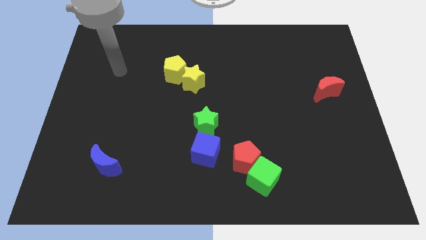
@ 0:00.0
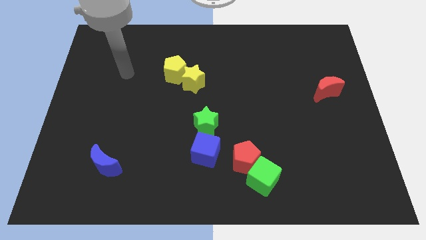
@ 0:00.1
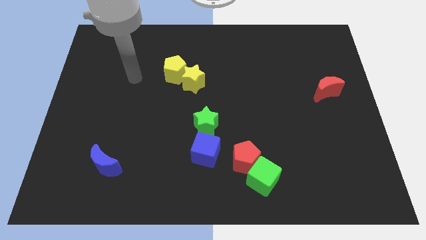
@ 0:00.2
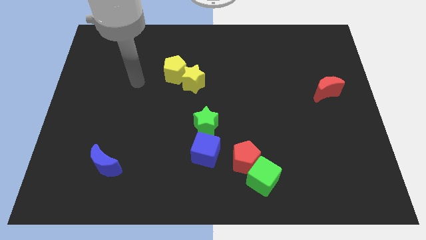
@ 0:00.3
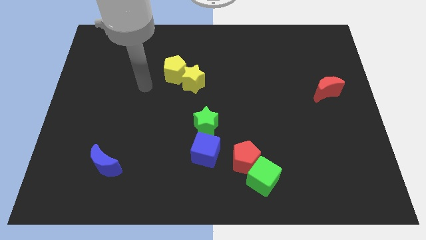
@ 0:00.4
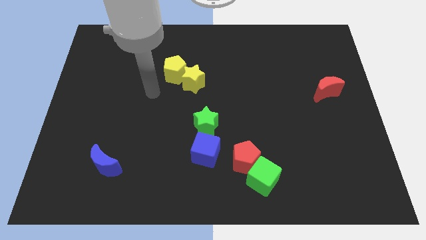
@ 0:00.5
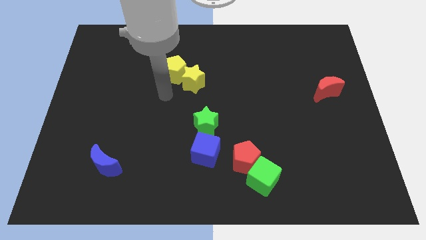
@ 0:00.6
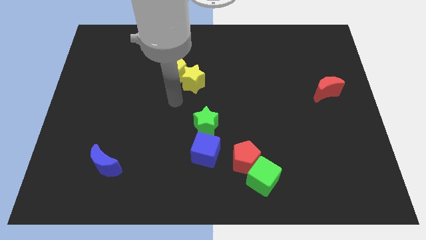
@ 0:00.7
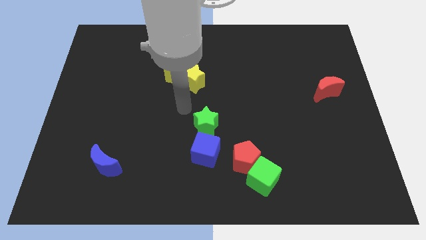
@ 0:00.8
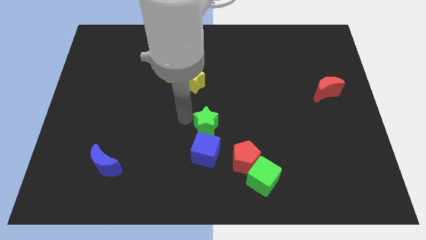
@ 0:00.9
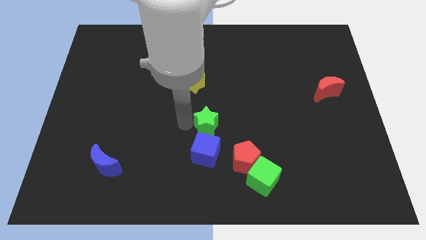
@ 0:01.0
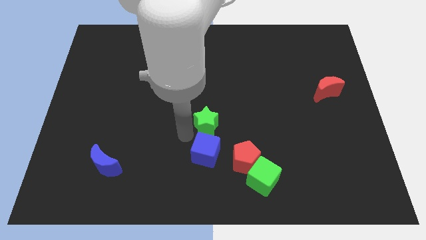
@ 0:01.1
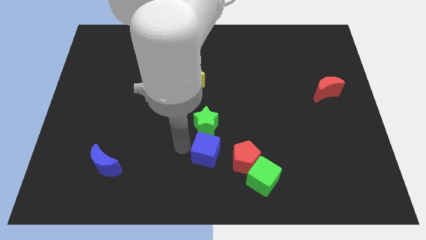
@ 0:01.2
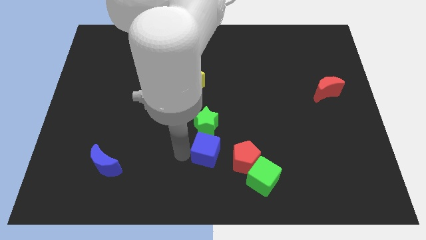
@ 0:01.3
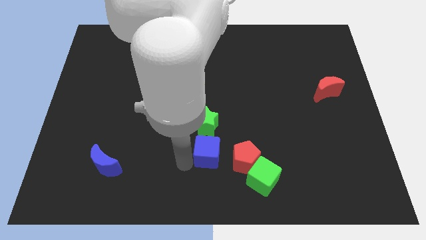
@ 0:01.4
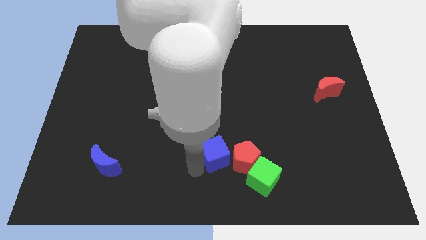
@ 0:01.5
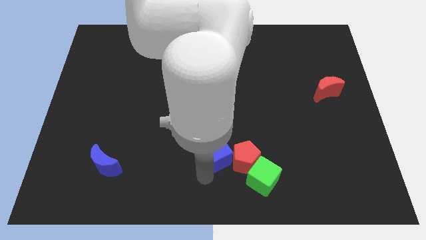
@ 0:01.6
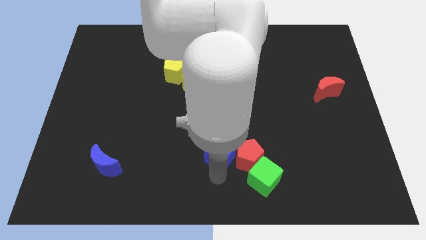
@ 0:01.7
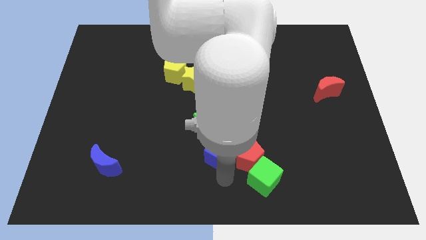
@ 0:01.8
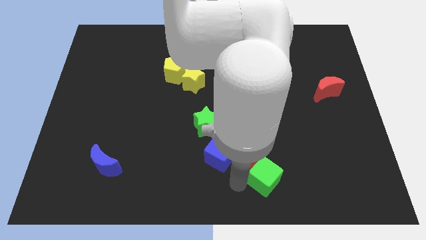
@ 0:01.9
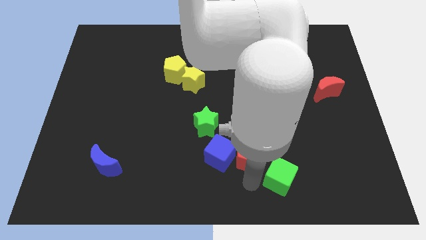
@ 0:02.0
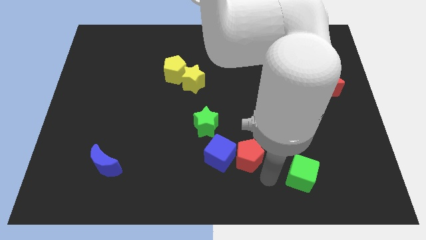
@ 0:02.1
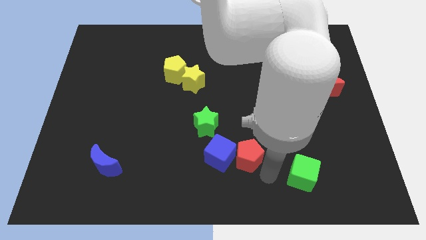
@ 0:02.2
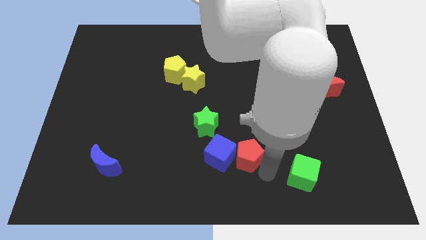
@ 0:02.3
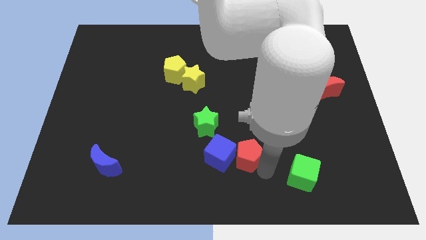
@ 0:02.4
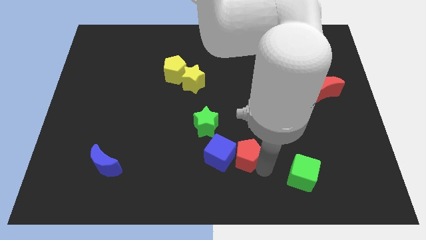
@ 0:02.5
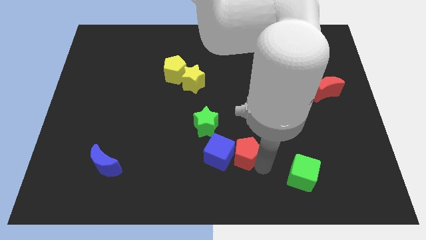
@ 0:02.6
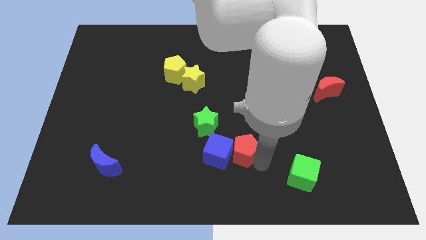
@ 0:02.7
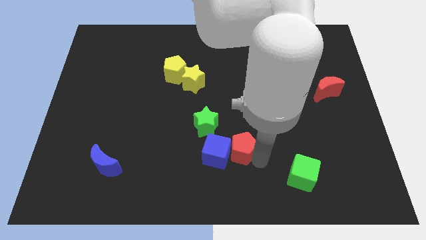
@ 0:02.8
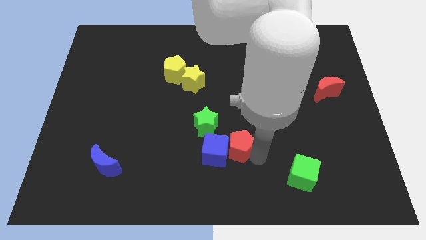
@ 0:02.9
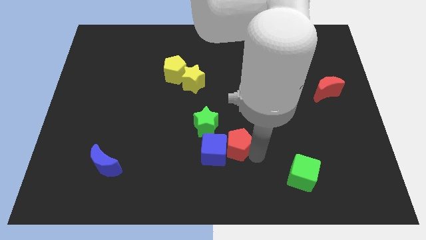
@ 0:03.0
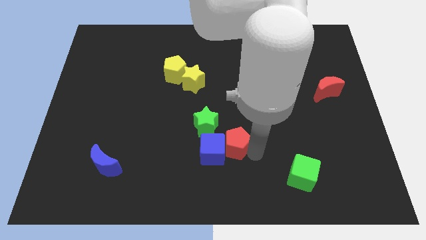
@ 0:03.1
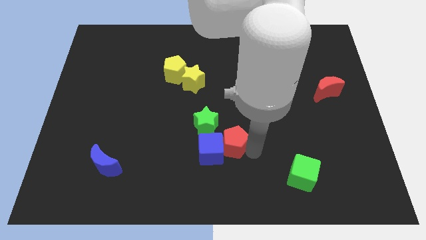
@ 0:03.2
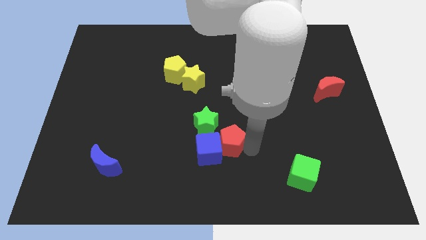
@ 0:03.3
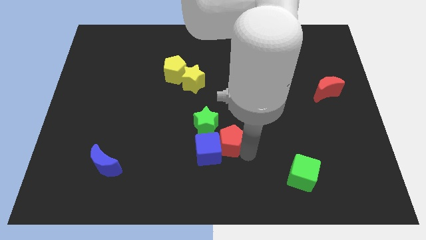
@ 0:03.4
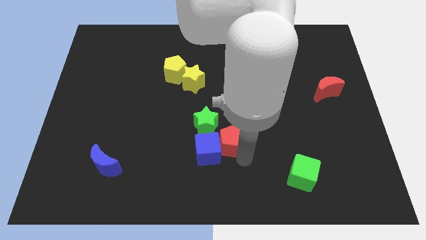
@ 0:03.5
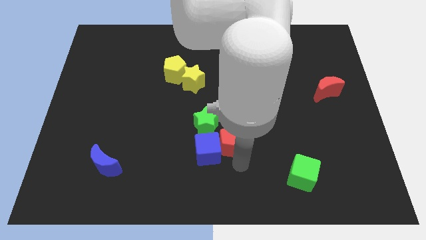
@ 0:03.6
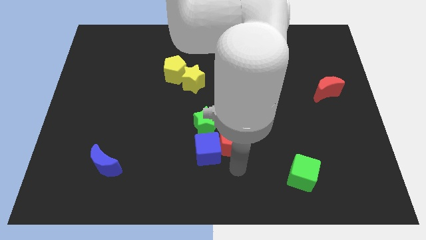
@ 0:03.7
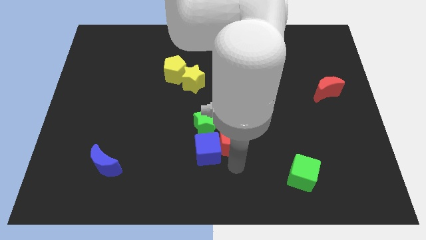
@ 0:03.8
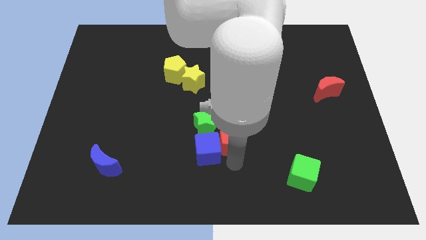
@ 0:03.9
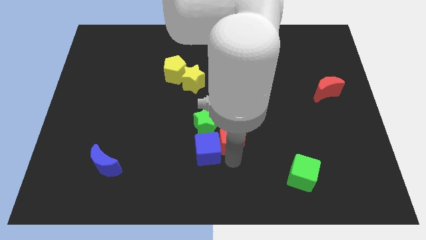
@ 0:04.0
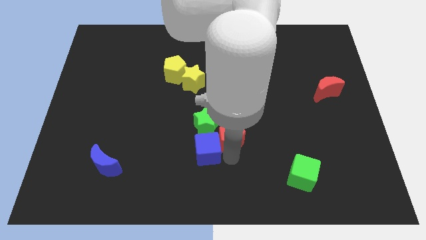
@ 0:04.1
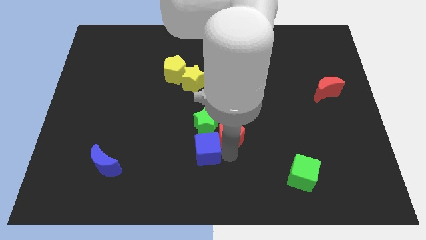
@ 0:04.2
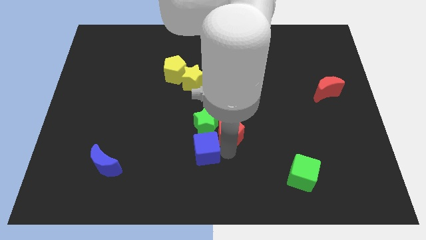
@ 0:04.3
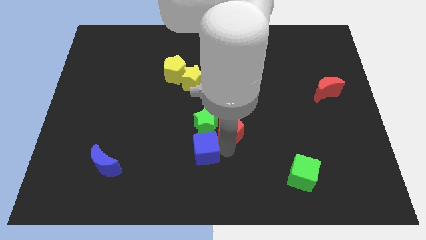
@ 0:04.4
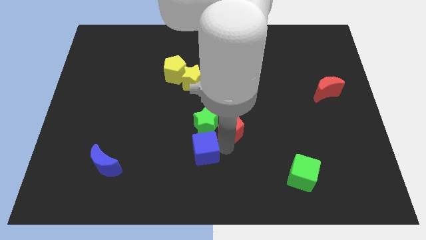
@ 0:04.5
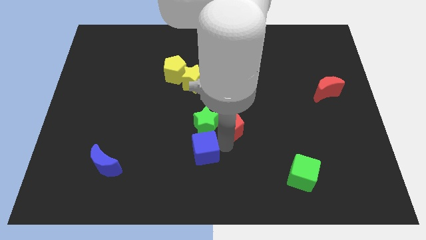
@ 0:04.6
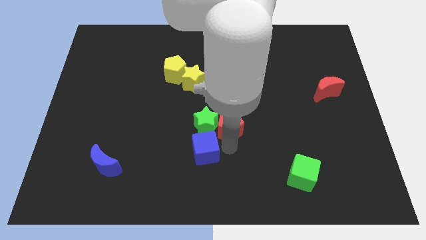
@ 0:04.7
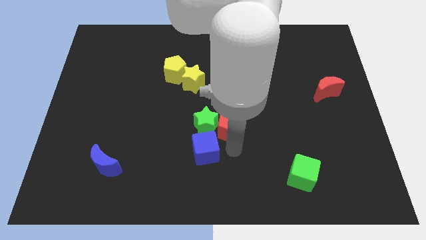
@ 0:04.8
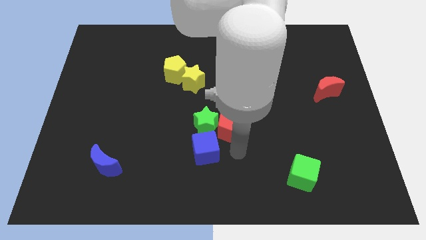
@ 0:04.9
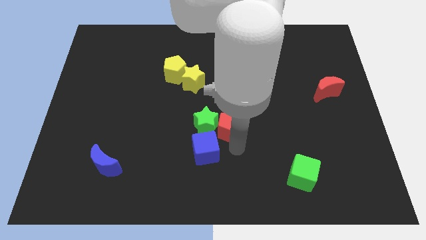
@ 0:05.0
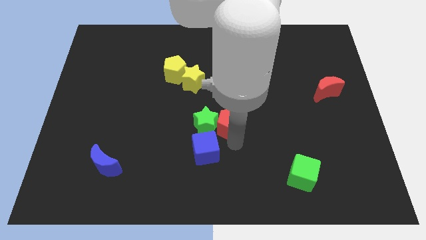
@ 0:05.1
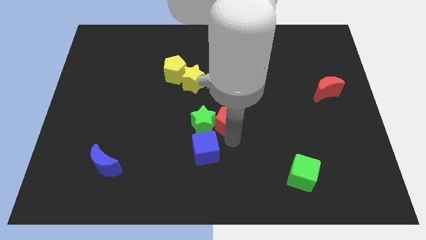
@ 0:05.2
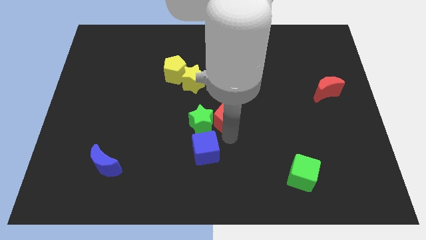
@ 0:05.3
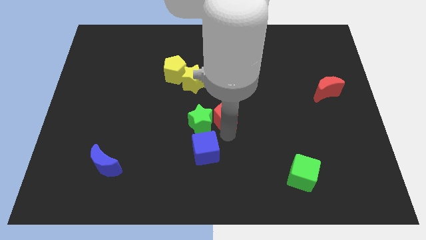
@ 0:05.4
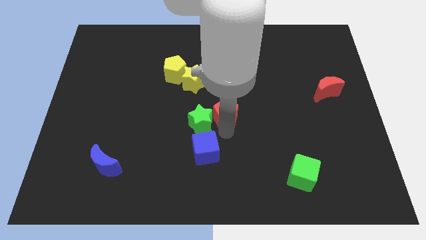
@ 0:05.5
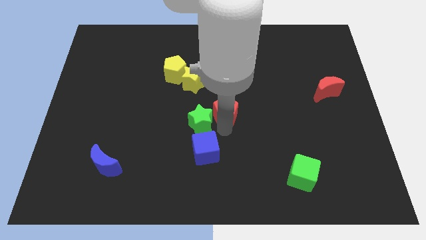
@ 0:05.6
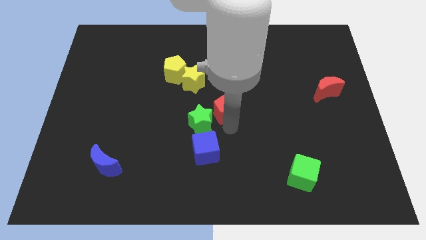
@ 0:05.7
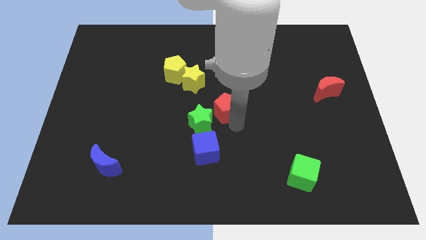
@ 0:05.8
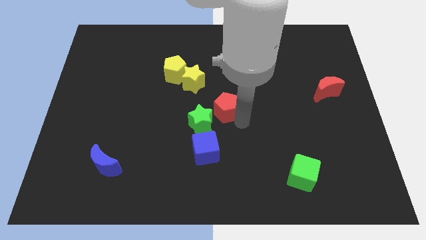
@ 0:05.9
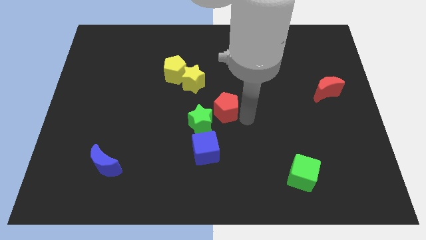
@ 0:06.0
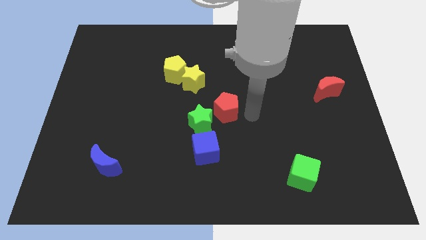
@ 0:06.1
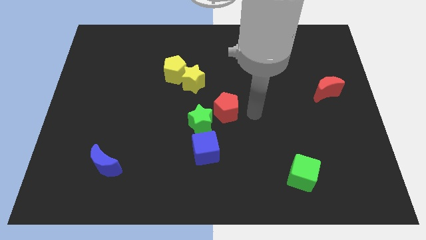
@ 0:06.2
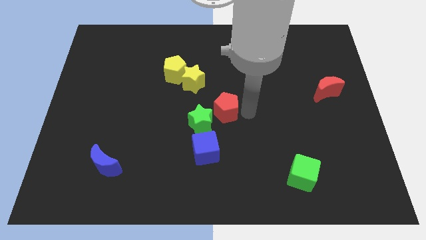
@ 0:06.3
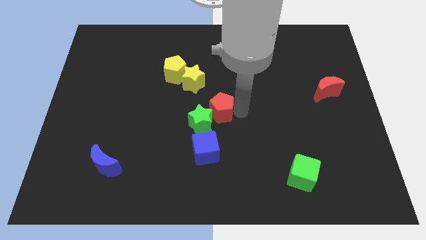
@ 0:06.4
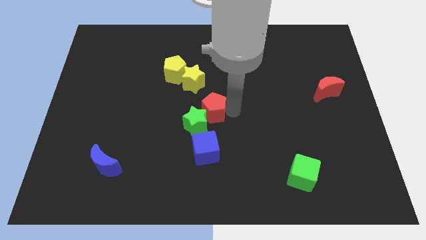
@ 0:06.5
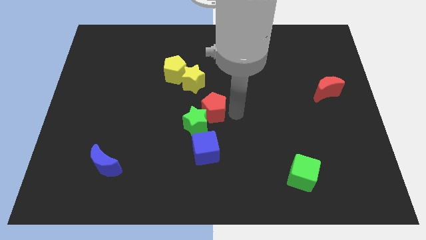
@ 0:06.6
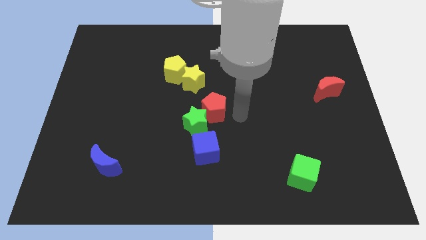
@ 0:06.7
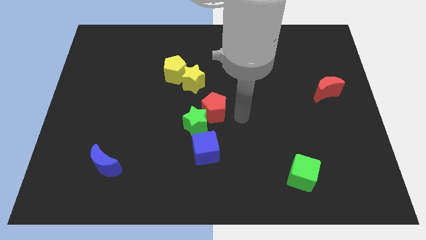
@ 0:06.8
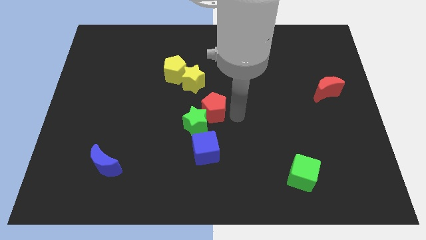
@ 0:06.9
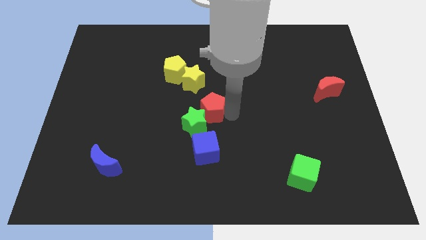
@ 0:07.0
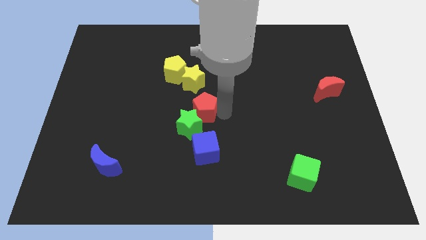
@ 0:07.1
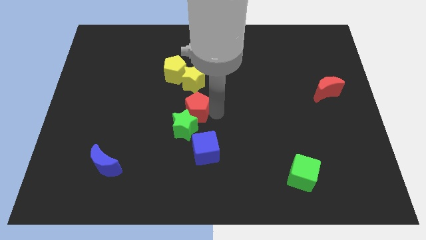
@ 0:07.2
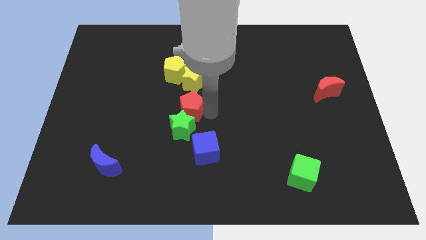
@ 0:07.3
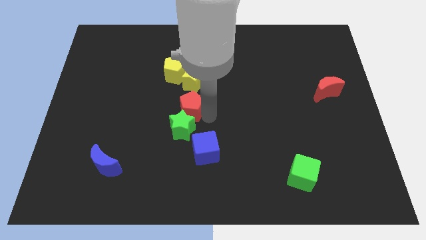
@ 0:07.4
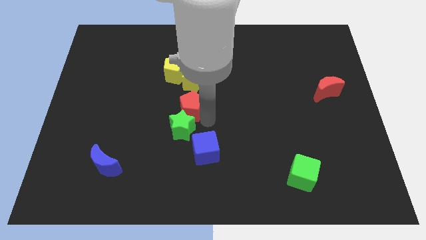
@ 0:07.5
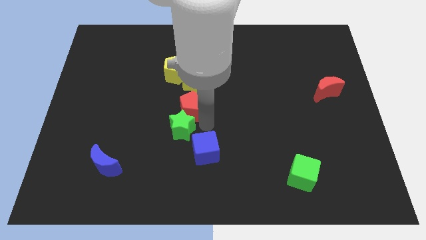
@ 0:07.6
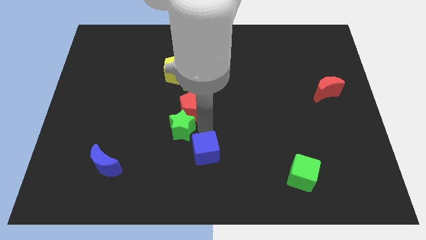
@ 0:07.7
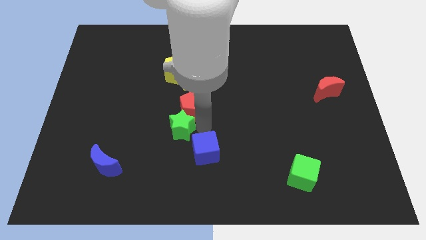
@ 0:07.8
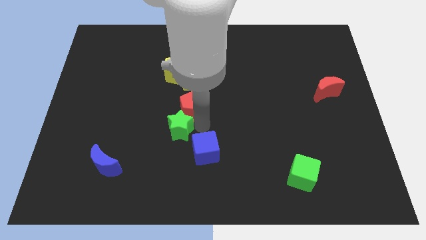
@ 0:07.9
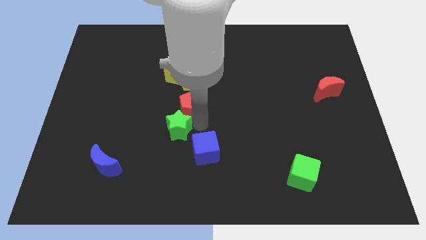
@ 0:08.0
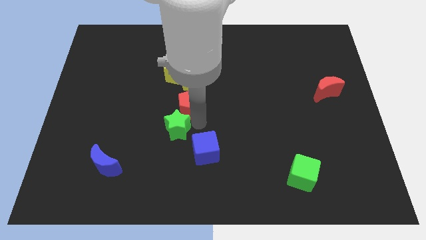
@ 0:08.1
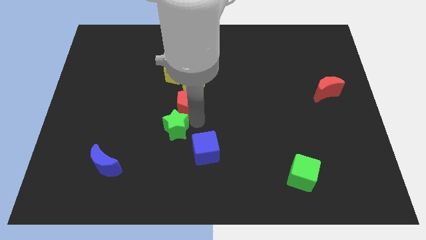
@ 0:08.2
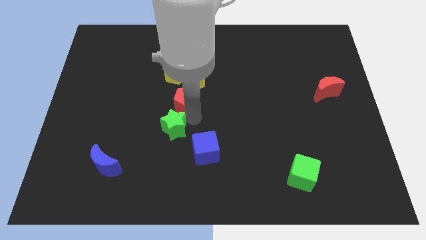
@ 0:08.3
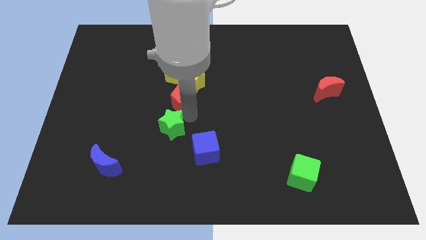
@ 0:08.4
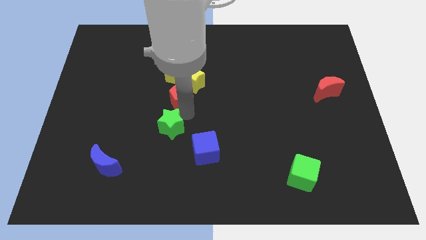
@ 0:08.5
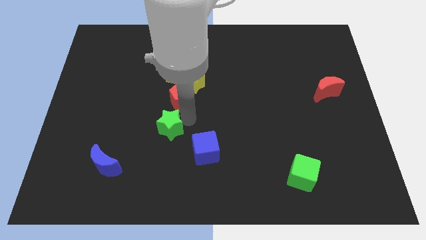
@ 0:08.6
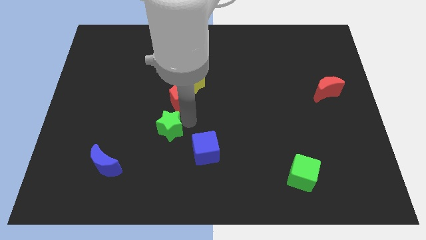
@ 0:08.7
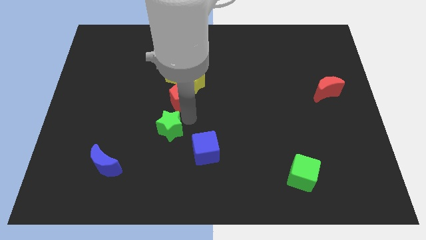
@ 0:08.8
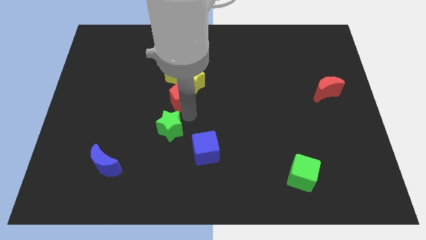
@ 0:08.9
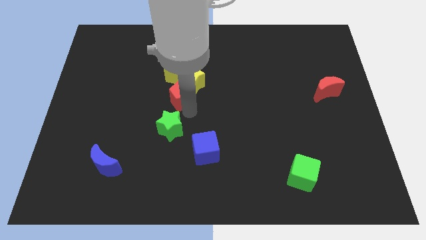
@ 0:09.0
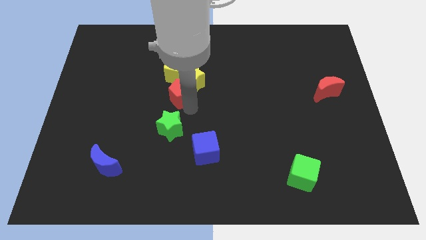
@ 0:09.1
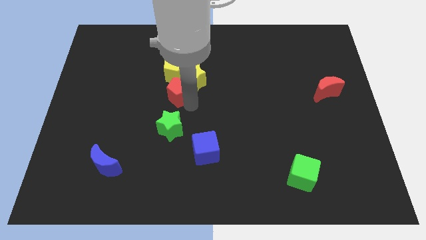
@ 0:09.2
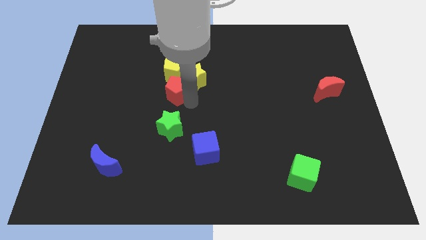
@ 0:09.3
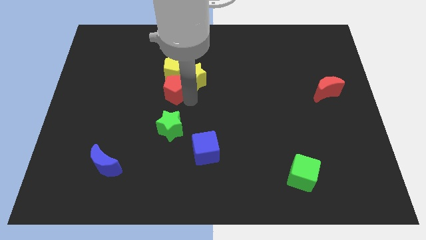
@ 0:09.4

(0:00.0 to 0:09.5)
move the red pentagon next to the yellow pentagon
